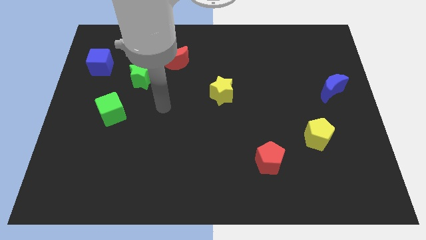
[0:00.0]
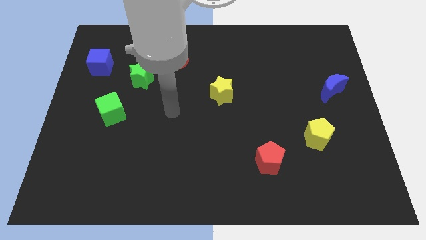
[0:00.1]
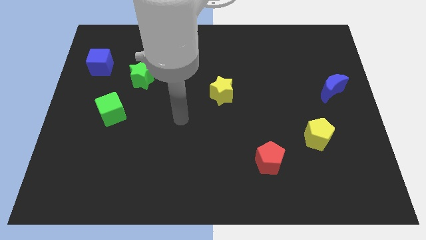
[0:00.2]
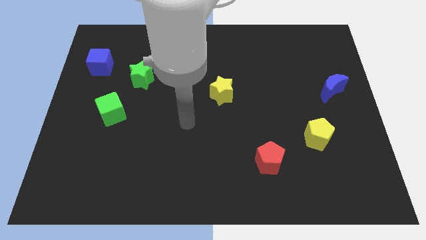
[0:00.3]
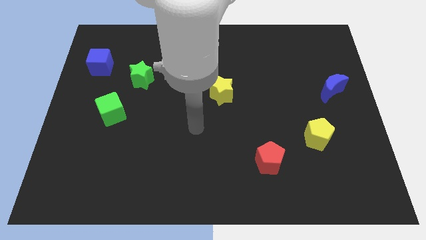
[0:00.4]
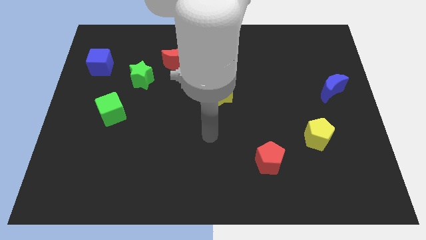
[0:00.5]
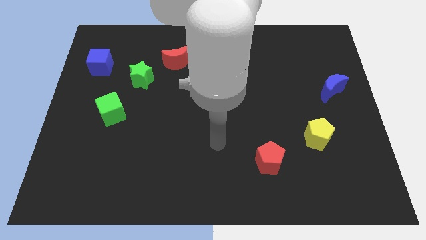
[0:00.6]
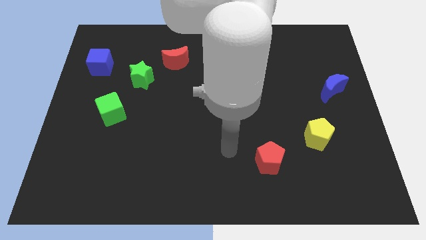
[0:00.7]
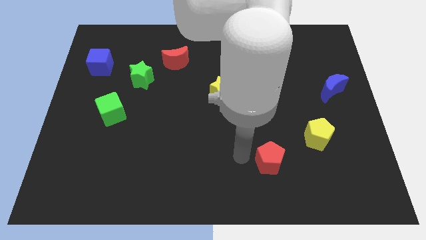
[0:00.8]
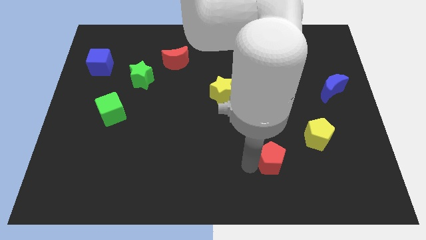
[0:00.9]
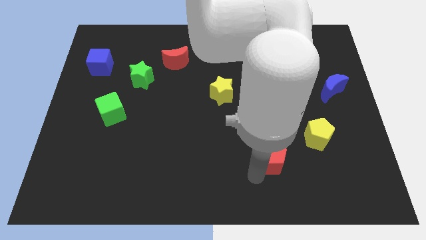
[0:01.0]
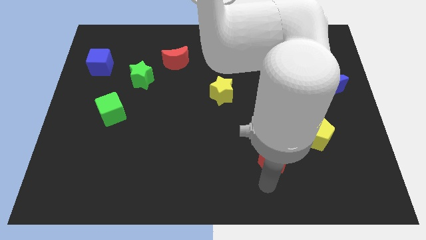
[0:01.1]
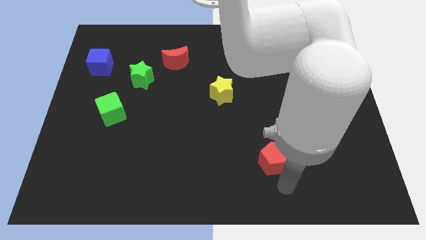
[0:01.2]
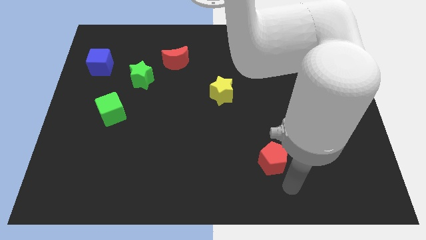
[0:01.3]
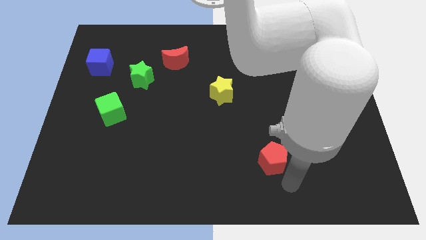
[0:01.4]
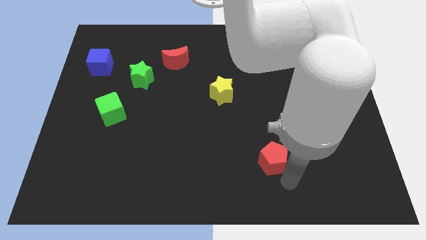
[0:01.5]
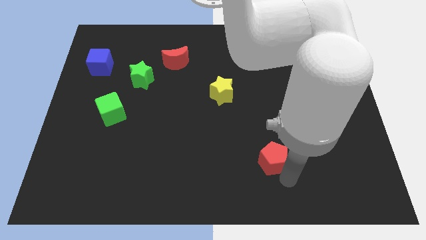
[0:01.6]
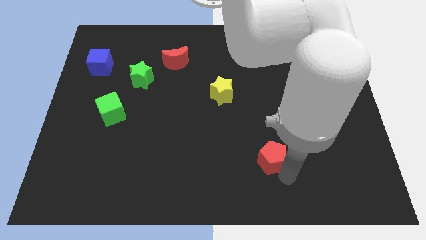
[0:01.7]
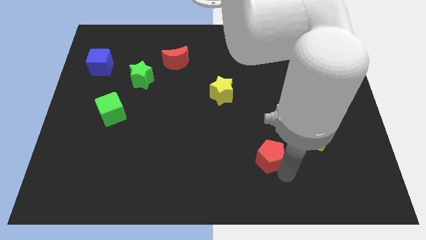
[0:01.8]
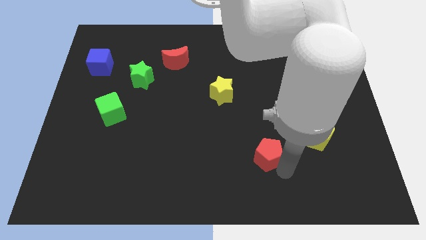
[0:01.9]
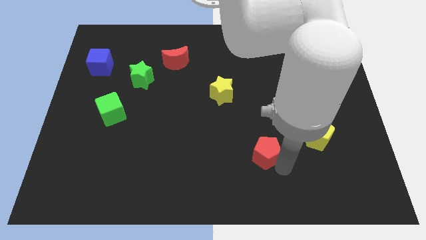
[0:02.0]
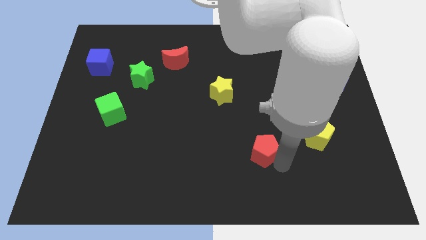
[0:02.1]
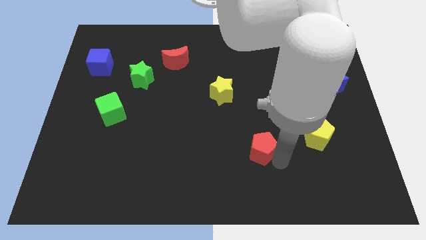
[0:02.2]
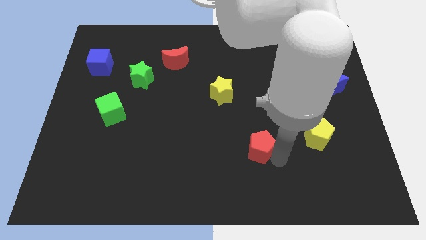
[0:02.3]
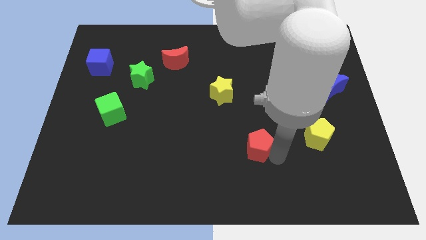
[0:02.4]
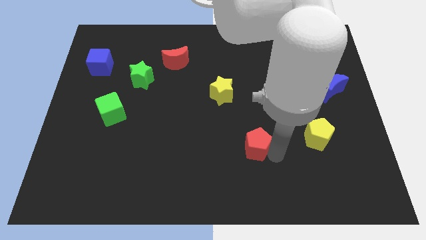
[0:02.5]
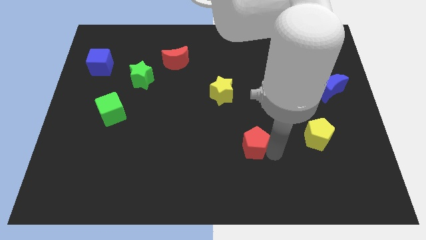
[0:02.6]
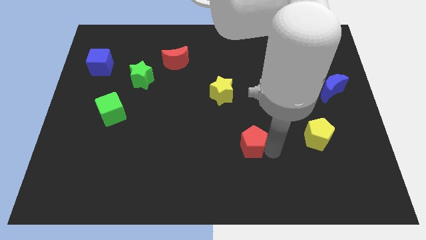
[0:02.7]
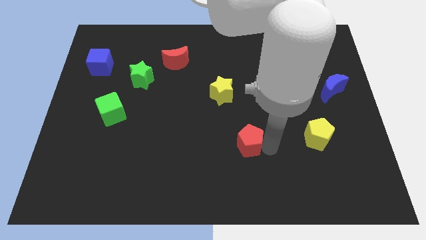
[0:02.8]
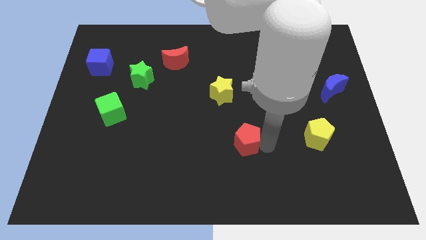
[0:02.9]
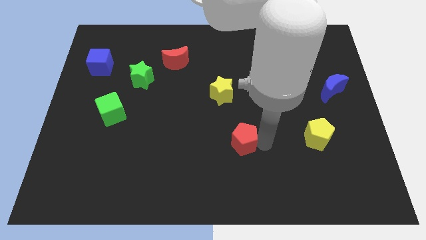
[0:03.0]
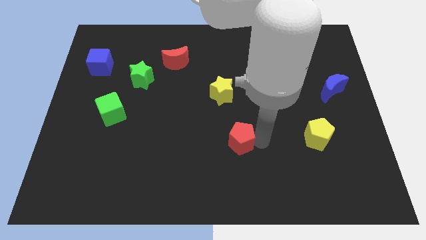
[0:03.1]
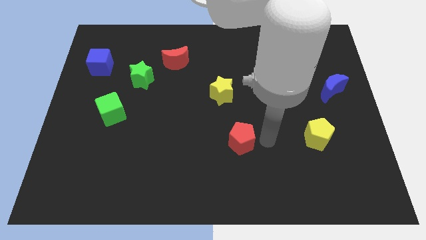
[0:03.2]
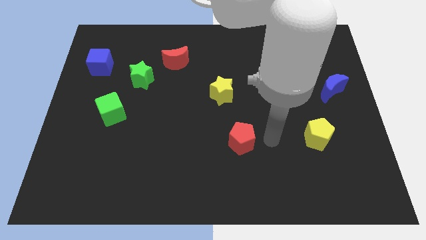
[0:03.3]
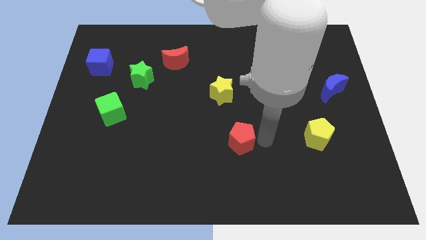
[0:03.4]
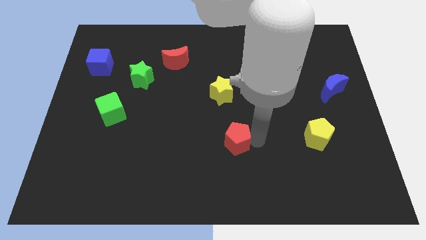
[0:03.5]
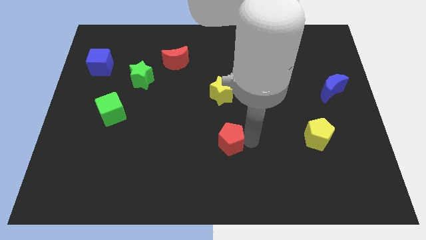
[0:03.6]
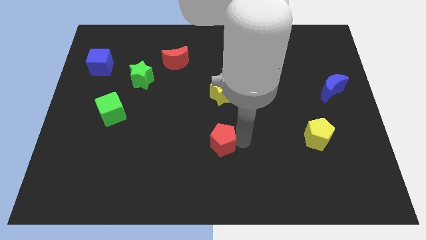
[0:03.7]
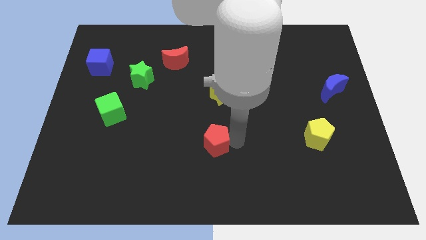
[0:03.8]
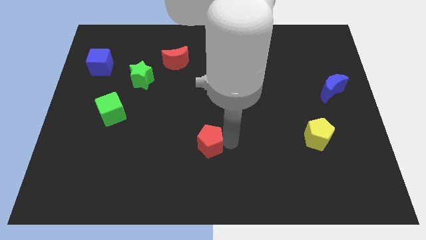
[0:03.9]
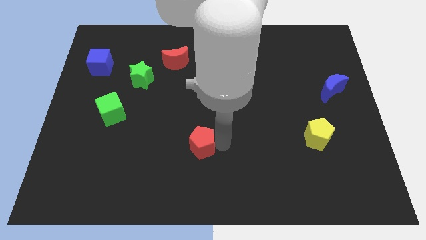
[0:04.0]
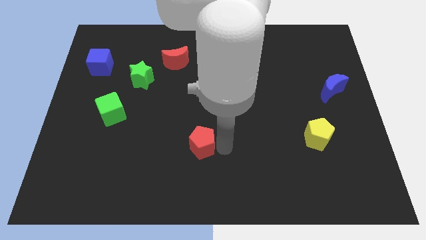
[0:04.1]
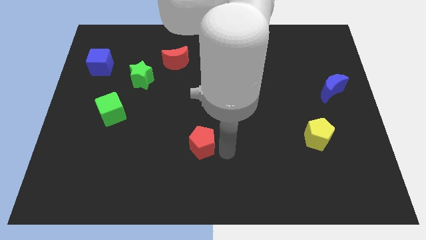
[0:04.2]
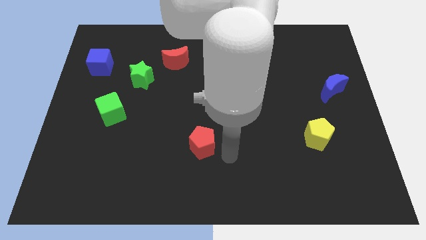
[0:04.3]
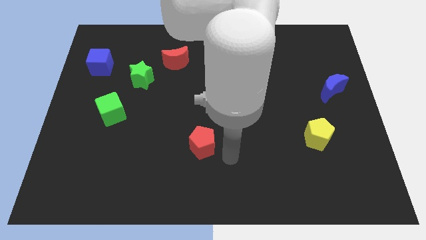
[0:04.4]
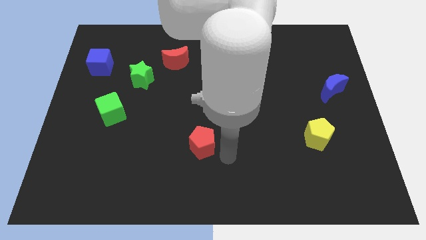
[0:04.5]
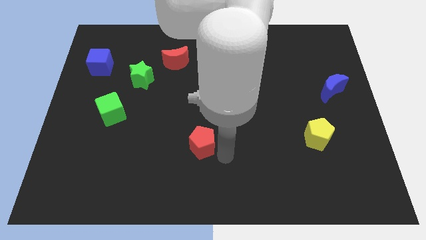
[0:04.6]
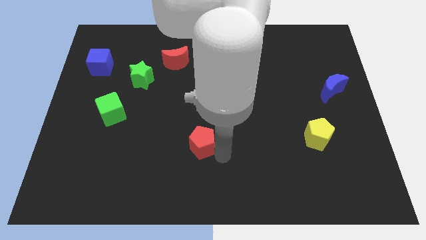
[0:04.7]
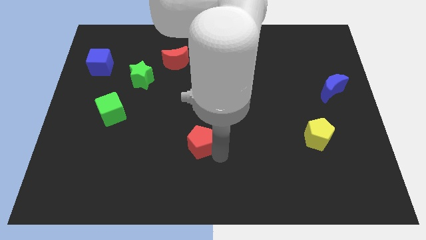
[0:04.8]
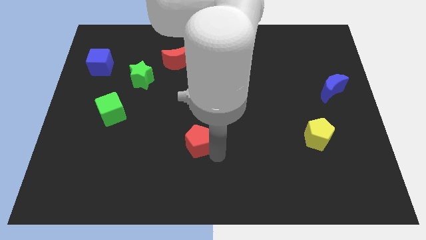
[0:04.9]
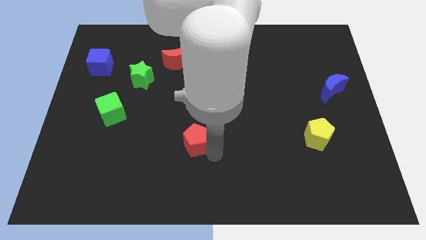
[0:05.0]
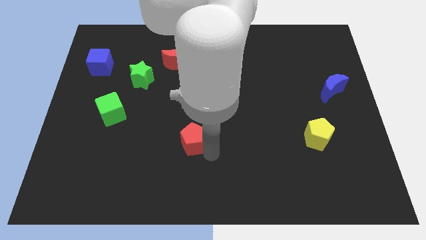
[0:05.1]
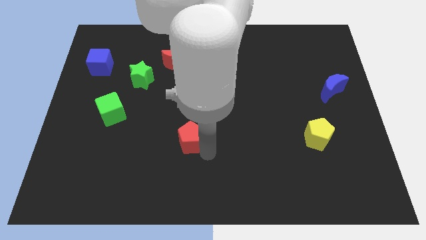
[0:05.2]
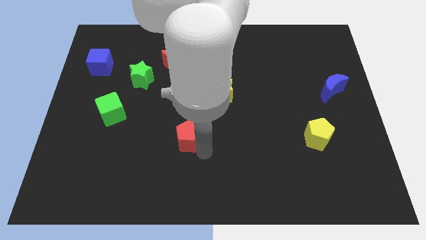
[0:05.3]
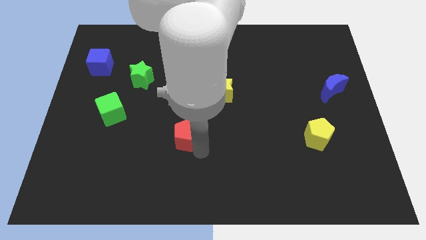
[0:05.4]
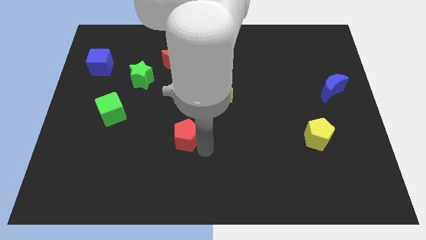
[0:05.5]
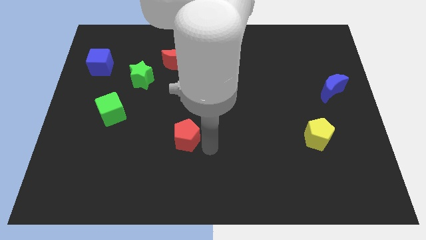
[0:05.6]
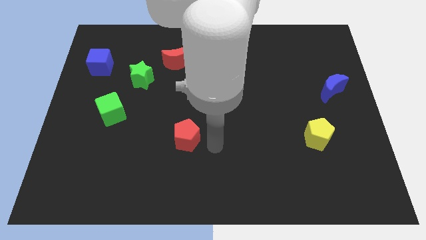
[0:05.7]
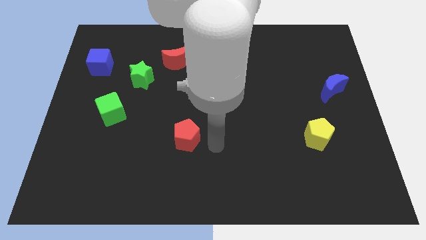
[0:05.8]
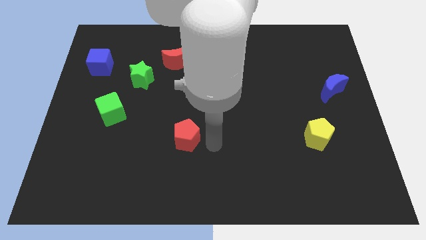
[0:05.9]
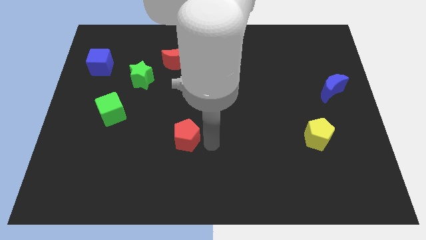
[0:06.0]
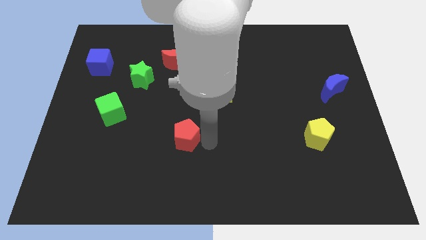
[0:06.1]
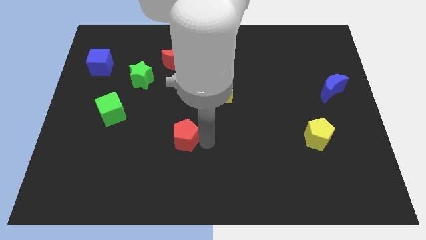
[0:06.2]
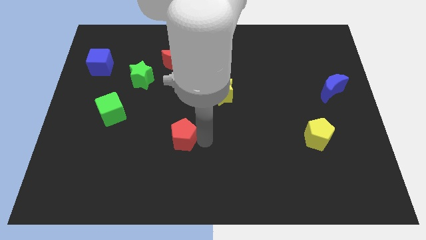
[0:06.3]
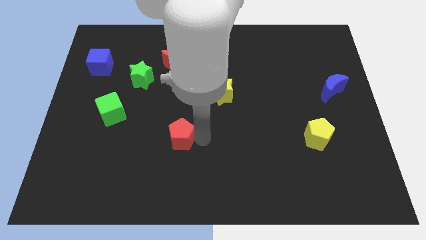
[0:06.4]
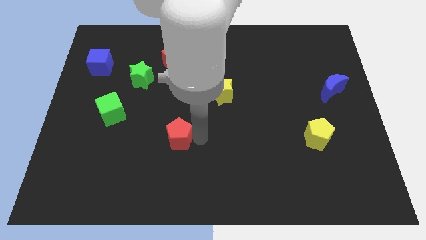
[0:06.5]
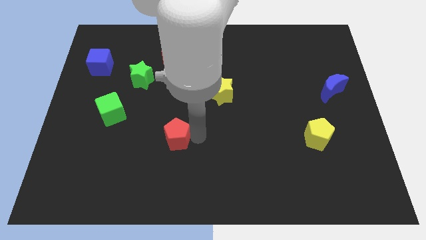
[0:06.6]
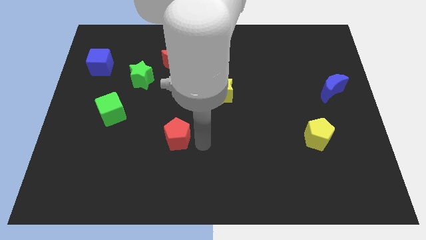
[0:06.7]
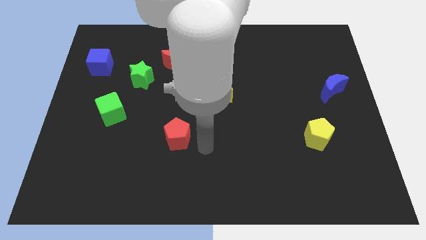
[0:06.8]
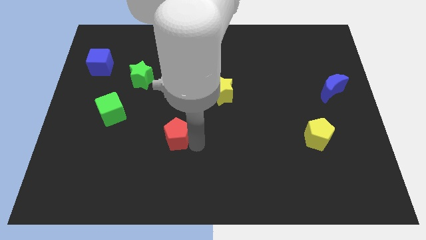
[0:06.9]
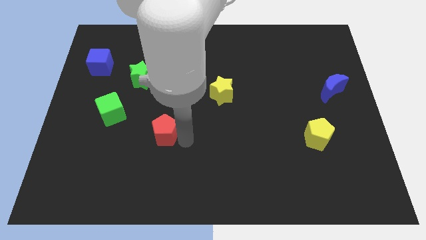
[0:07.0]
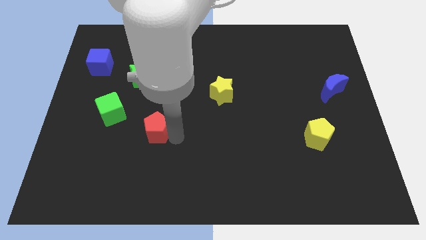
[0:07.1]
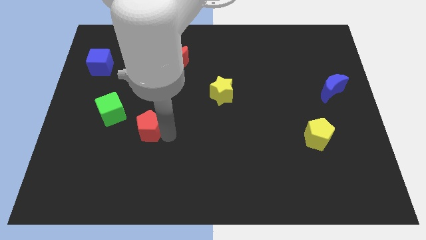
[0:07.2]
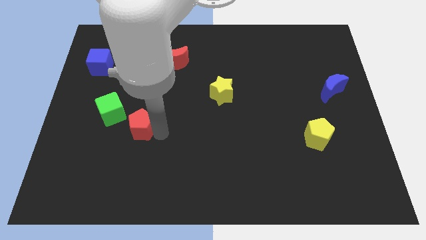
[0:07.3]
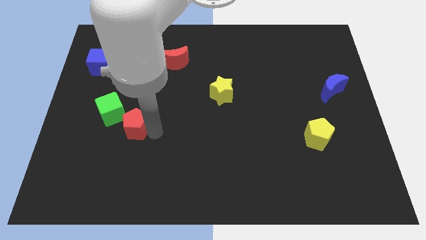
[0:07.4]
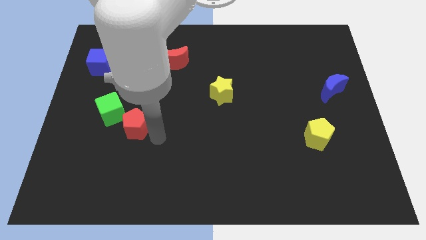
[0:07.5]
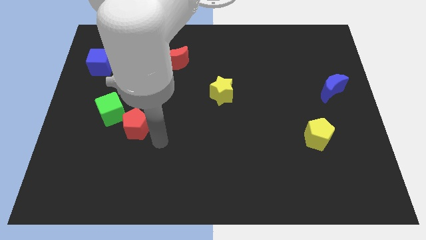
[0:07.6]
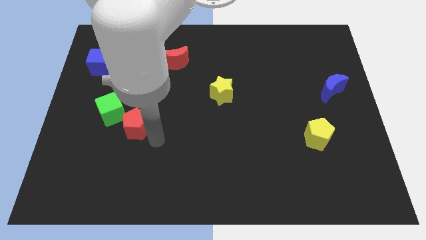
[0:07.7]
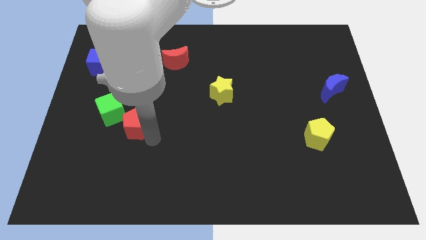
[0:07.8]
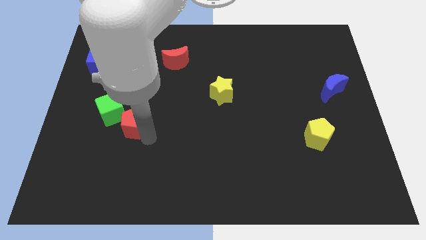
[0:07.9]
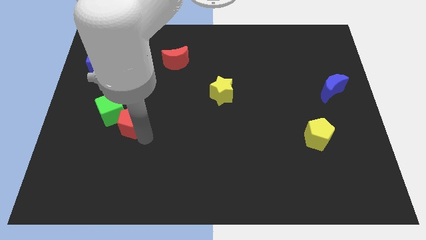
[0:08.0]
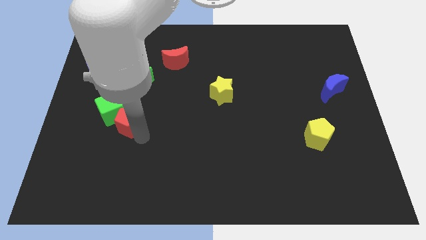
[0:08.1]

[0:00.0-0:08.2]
slide the red pentagon next to the green cube

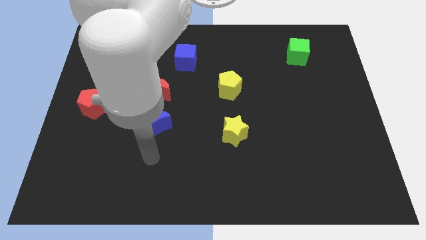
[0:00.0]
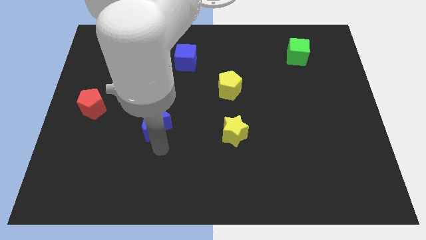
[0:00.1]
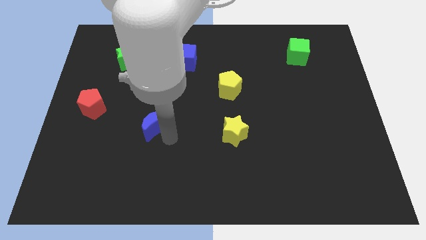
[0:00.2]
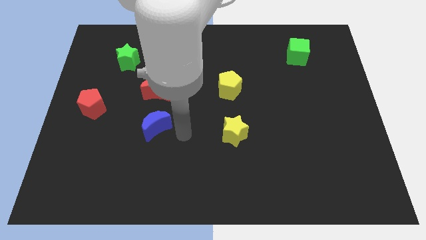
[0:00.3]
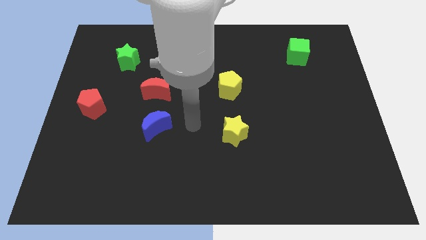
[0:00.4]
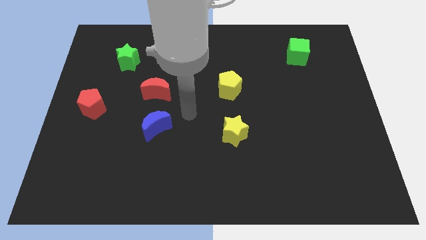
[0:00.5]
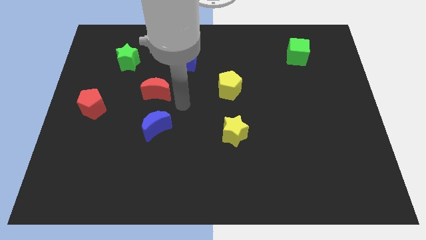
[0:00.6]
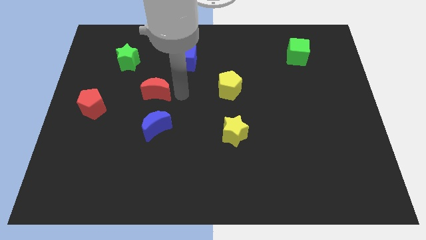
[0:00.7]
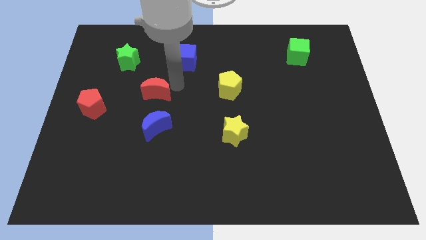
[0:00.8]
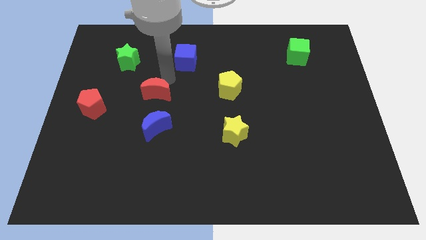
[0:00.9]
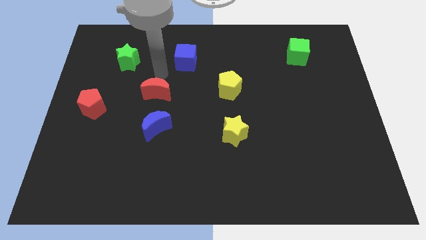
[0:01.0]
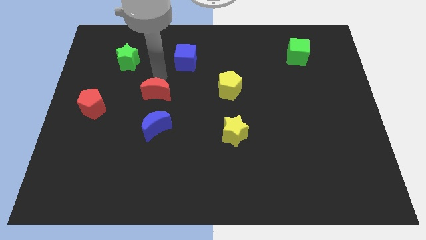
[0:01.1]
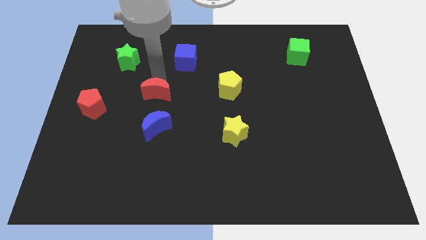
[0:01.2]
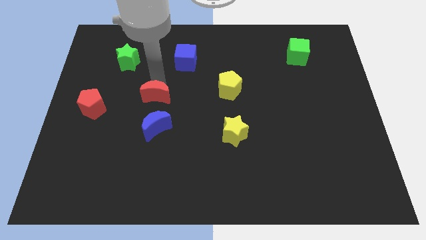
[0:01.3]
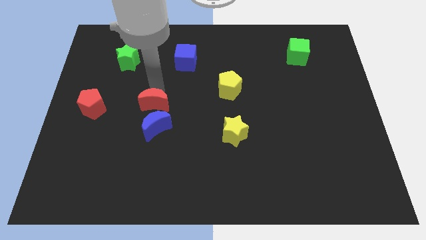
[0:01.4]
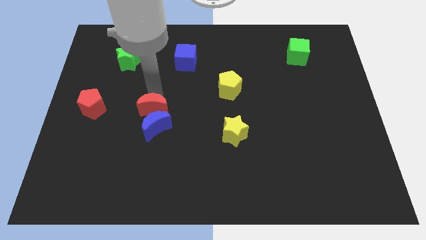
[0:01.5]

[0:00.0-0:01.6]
put the red moon close to the blue moon
